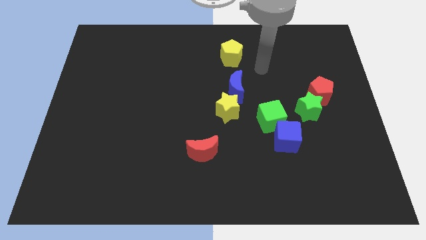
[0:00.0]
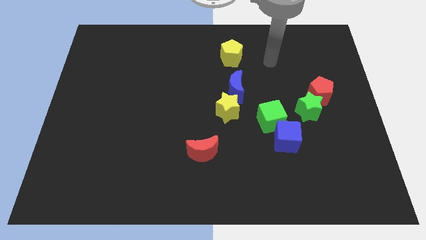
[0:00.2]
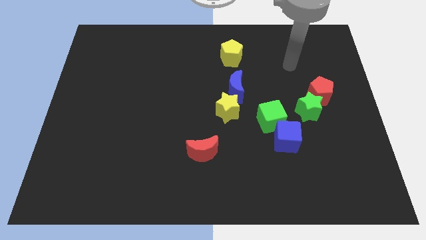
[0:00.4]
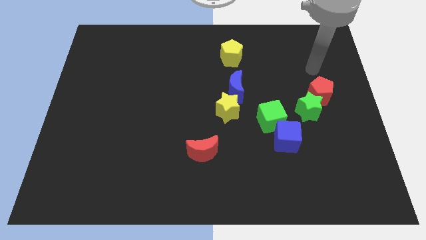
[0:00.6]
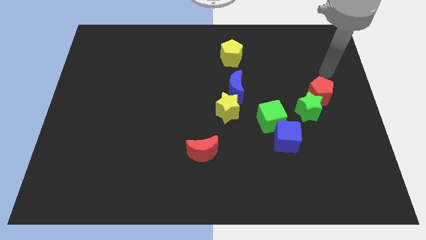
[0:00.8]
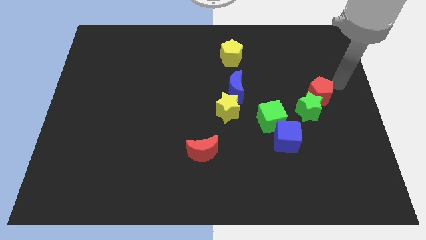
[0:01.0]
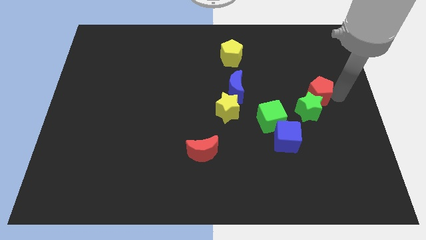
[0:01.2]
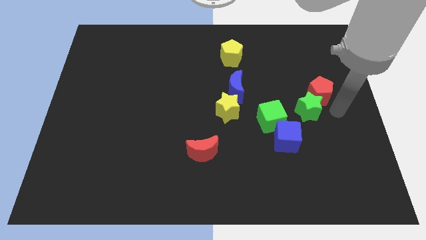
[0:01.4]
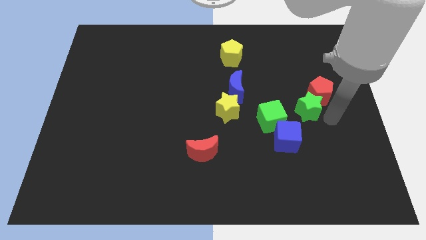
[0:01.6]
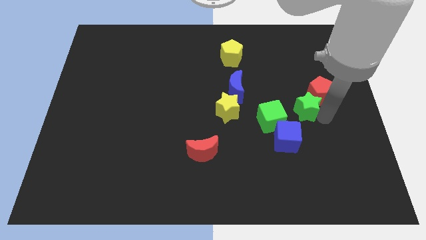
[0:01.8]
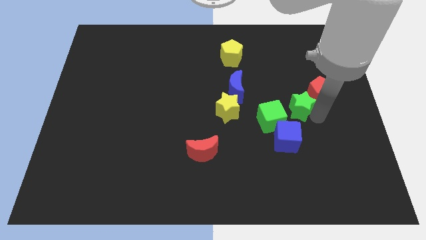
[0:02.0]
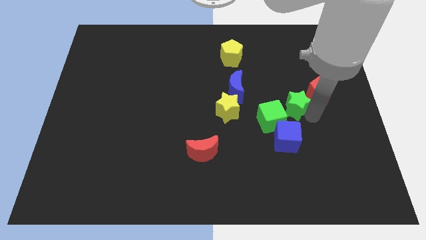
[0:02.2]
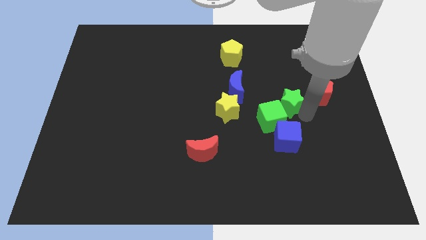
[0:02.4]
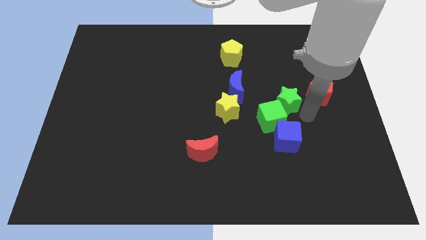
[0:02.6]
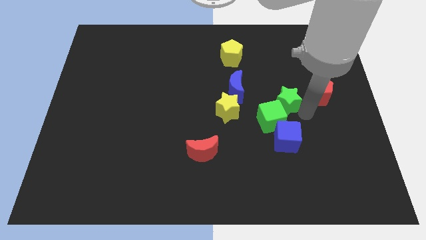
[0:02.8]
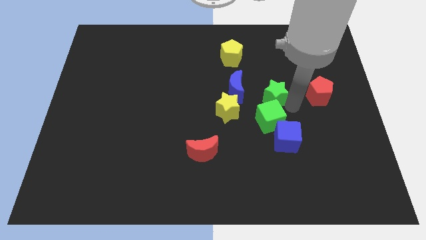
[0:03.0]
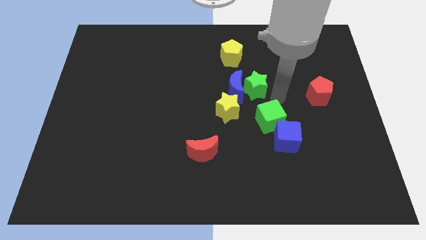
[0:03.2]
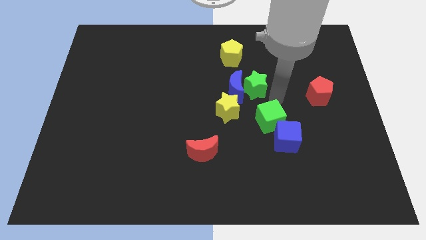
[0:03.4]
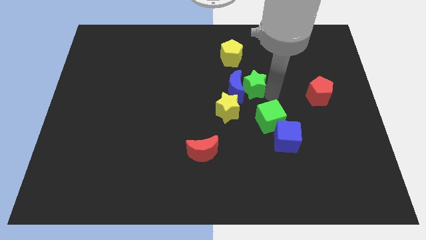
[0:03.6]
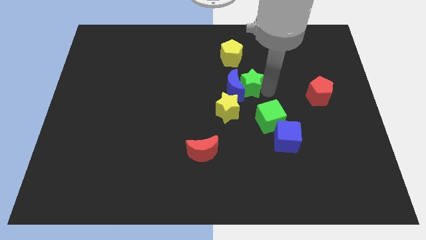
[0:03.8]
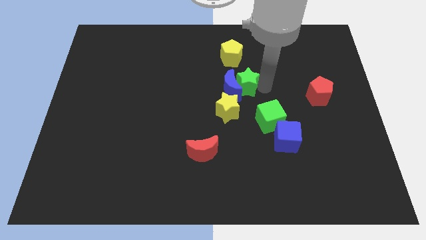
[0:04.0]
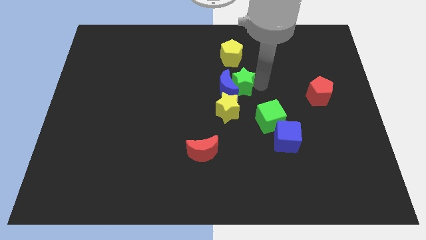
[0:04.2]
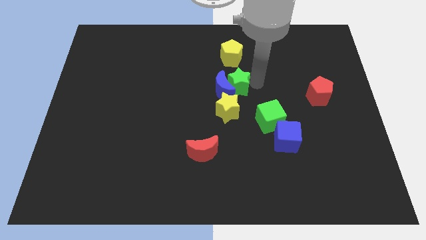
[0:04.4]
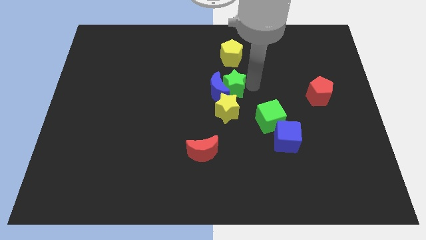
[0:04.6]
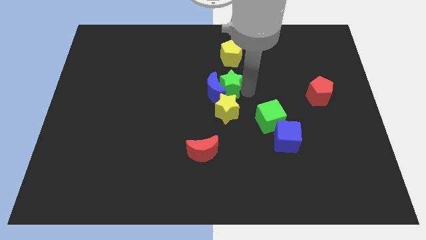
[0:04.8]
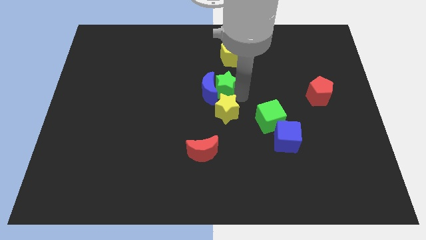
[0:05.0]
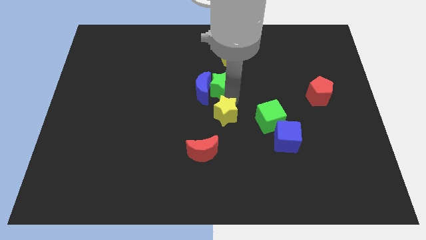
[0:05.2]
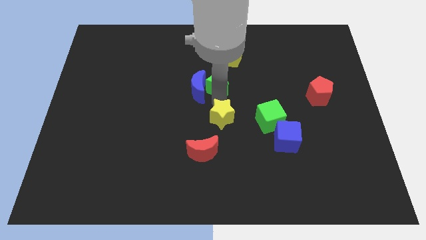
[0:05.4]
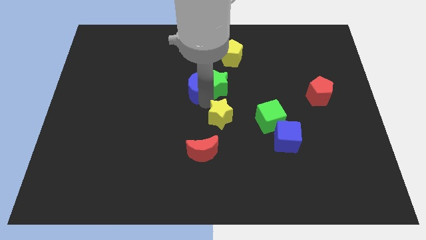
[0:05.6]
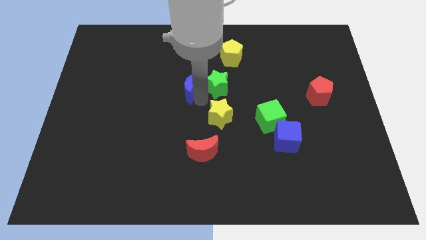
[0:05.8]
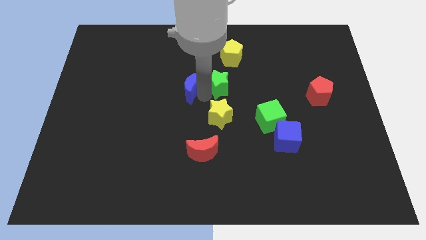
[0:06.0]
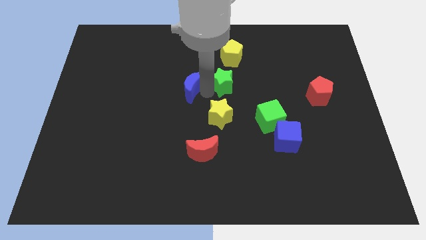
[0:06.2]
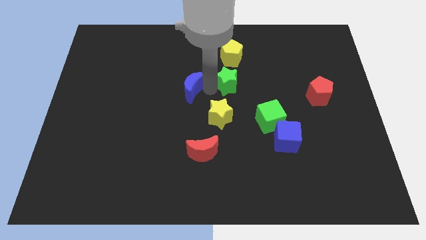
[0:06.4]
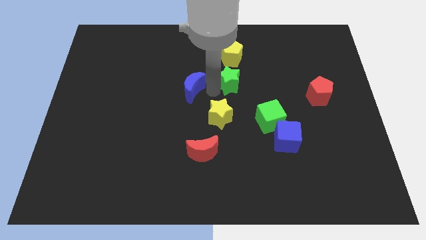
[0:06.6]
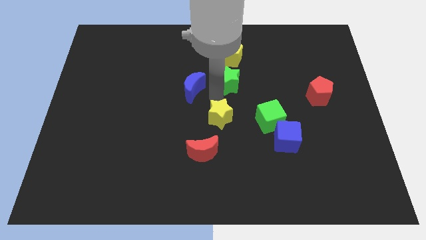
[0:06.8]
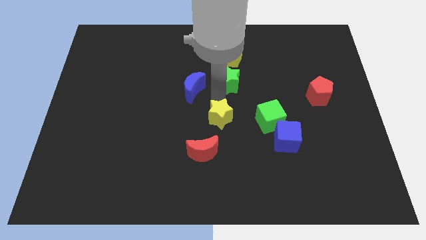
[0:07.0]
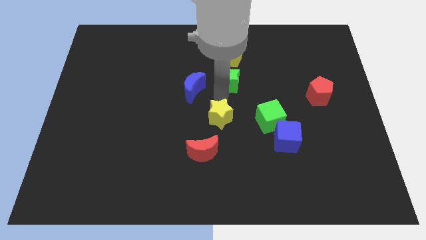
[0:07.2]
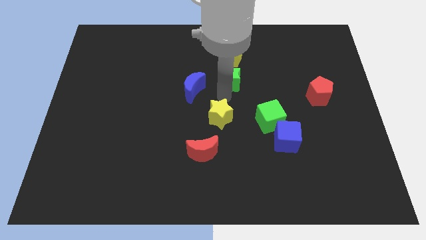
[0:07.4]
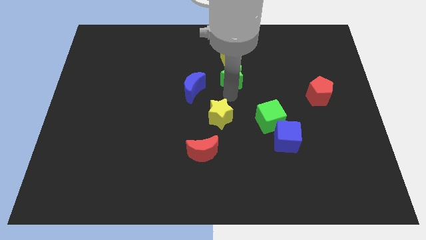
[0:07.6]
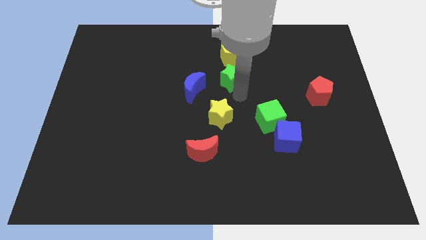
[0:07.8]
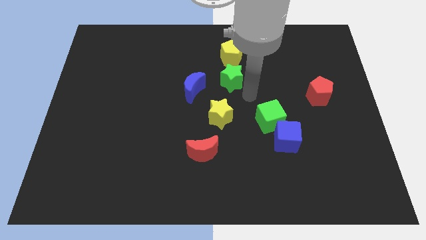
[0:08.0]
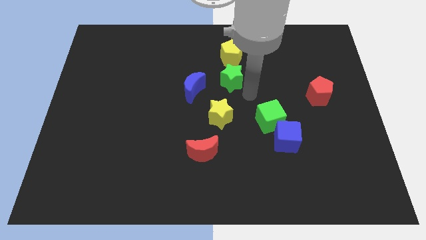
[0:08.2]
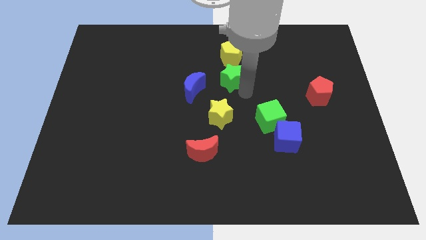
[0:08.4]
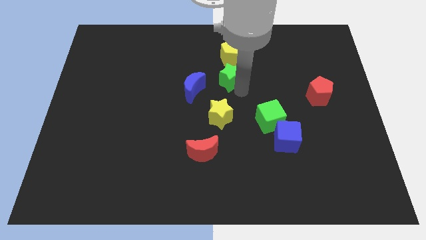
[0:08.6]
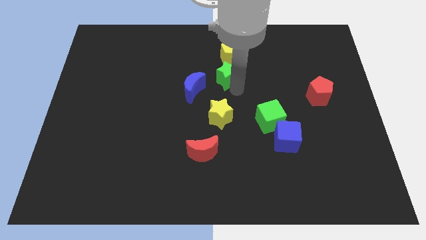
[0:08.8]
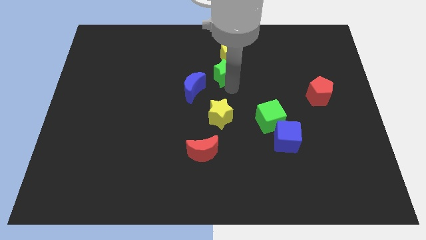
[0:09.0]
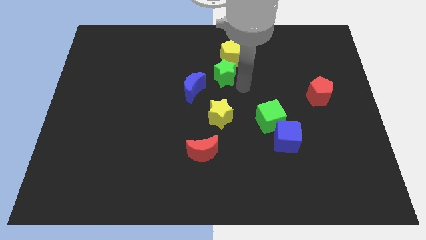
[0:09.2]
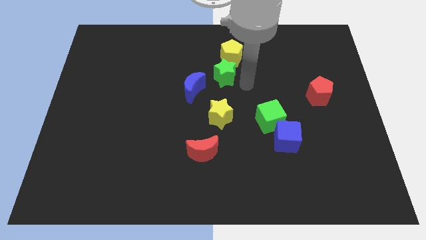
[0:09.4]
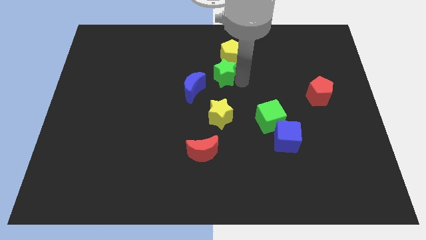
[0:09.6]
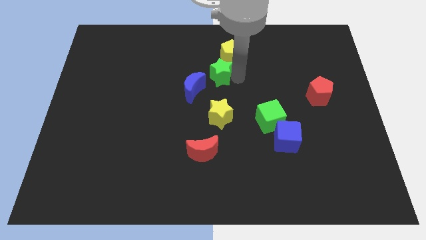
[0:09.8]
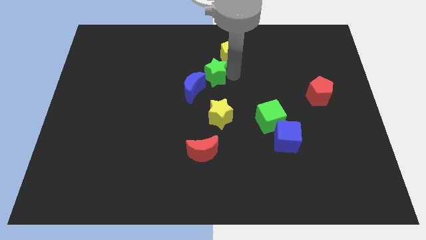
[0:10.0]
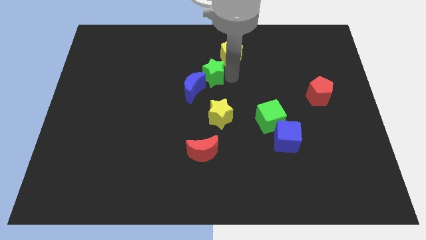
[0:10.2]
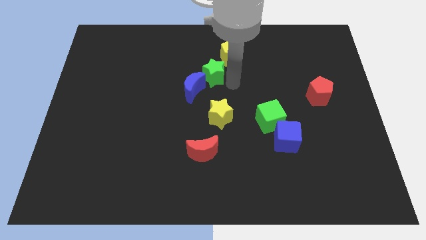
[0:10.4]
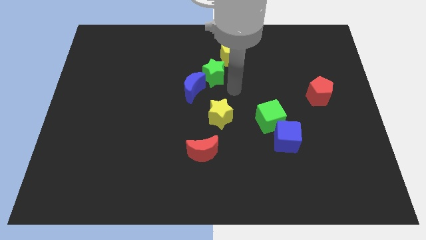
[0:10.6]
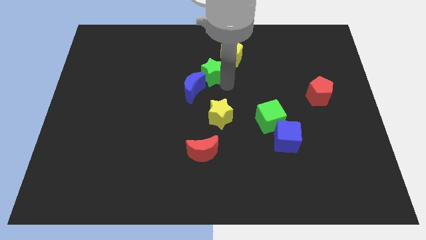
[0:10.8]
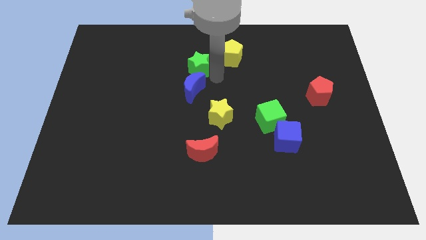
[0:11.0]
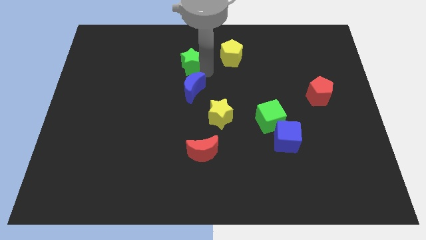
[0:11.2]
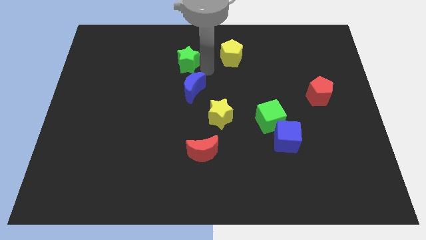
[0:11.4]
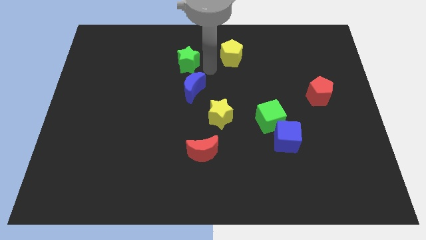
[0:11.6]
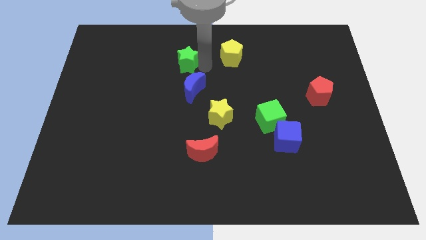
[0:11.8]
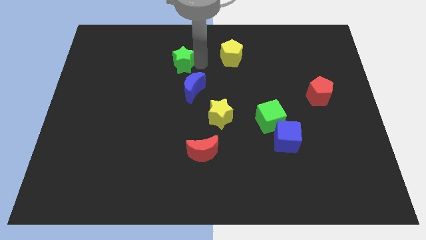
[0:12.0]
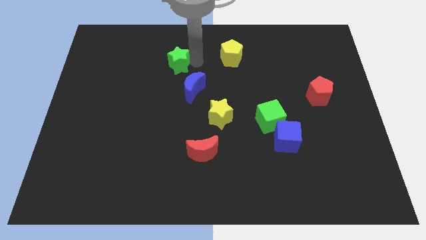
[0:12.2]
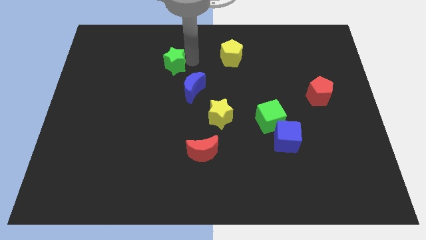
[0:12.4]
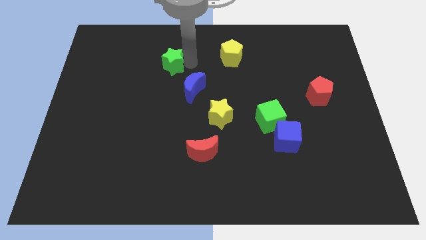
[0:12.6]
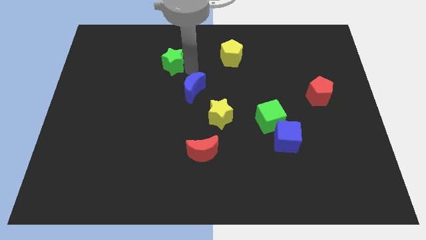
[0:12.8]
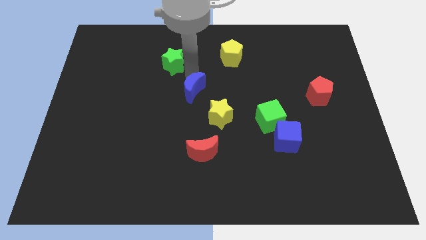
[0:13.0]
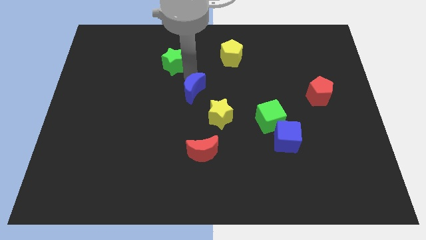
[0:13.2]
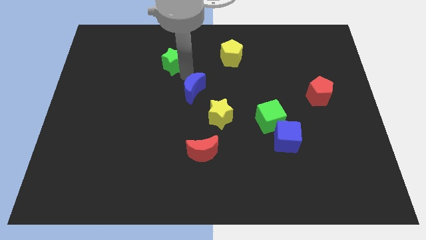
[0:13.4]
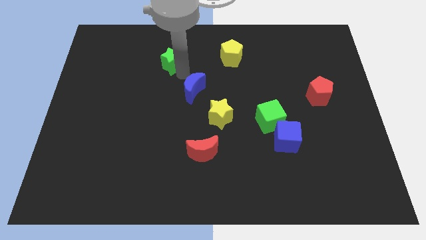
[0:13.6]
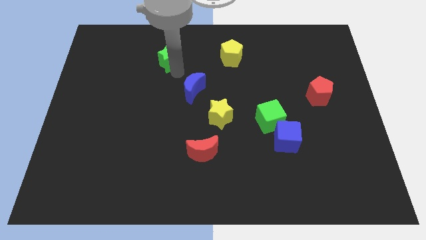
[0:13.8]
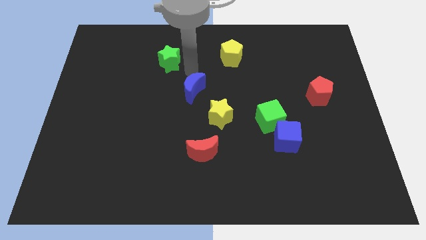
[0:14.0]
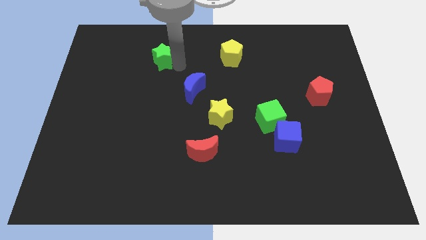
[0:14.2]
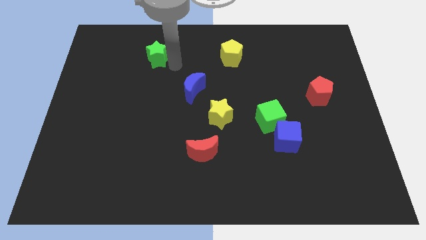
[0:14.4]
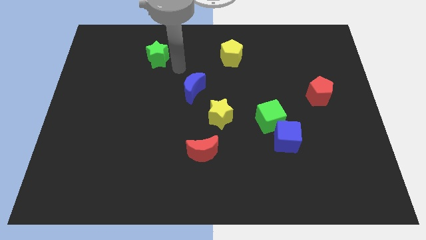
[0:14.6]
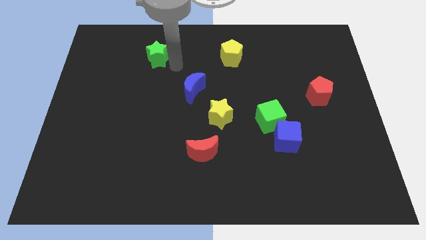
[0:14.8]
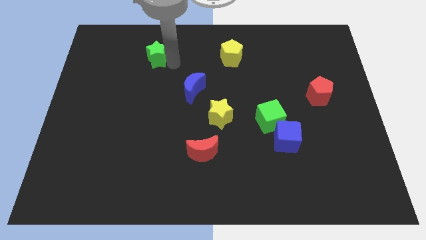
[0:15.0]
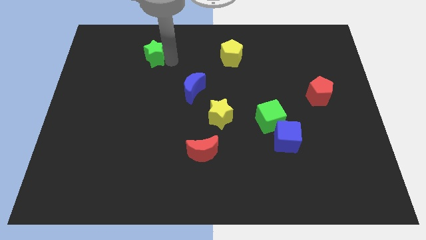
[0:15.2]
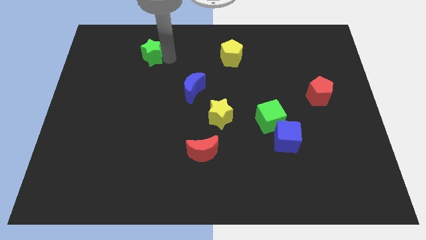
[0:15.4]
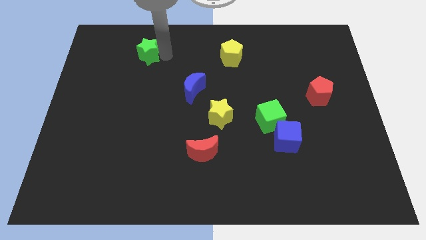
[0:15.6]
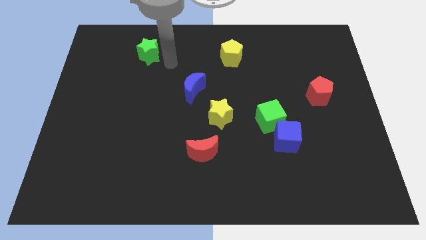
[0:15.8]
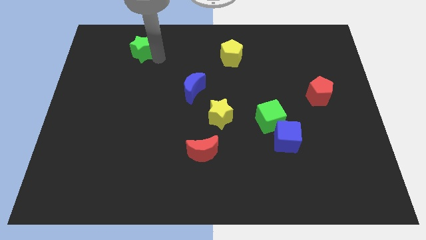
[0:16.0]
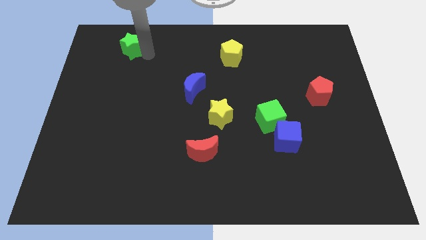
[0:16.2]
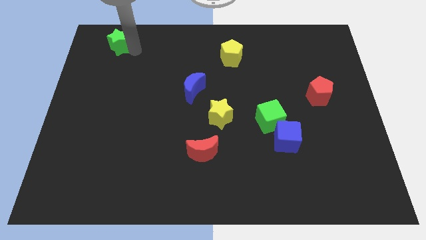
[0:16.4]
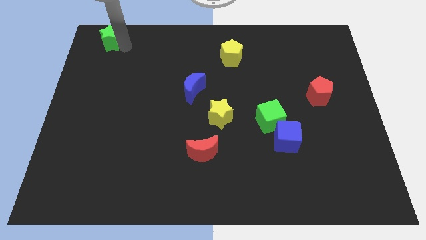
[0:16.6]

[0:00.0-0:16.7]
slide the green star to the upper left corner
